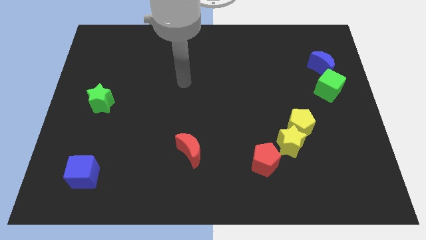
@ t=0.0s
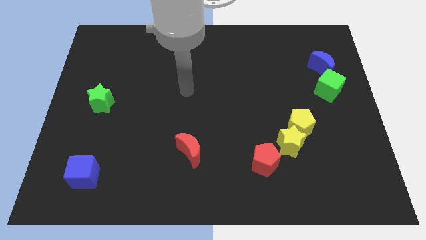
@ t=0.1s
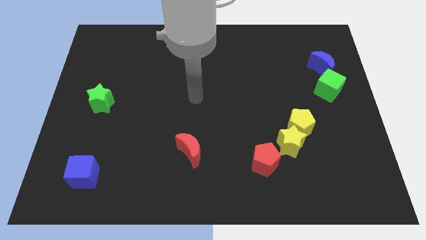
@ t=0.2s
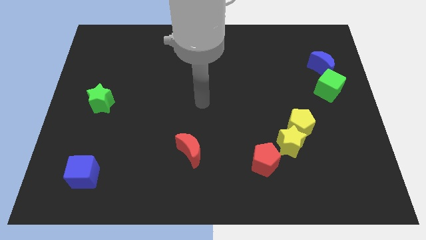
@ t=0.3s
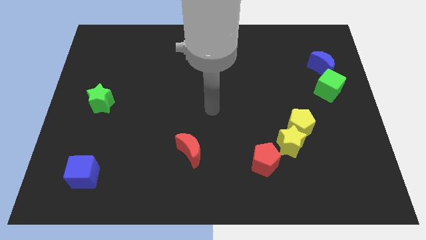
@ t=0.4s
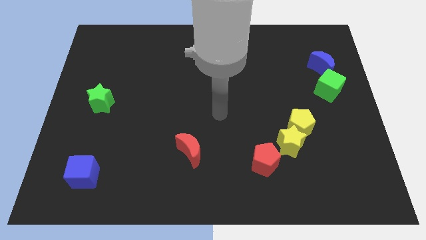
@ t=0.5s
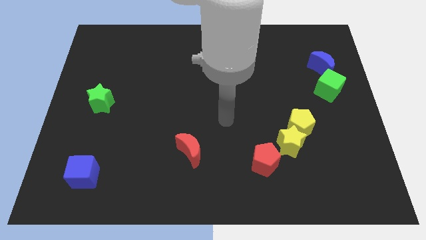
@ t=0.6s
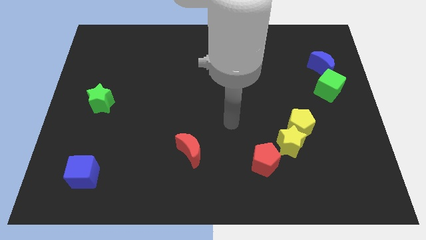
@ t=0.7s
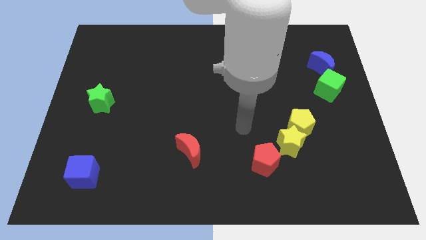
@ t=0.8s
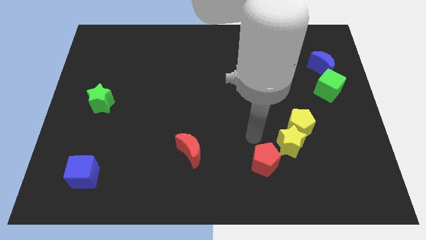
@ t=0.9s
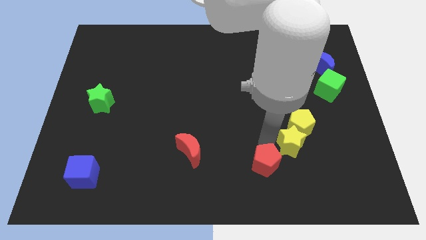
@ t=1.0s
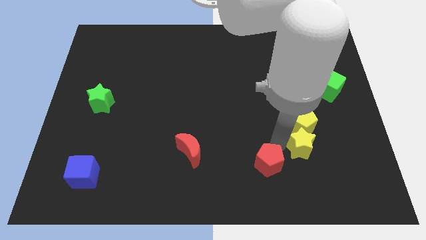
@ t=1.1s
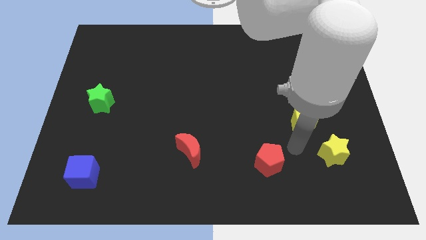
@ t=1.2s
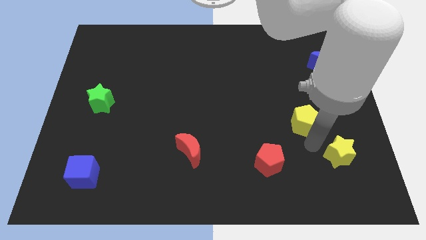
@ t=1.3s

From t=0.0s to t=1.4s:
move the yellow pentagon away from the yellow star

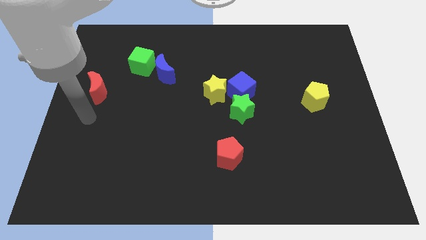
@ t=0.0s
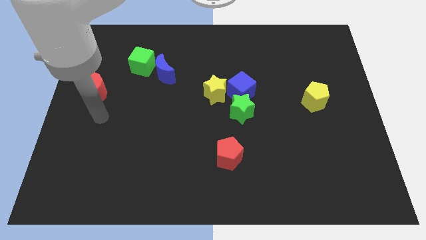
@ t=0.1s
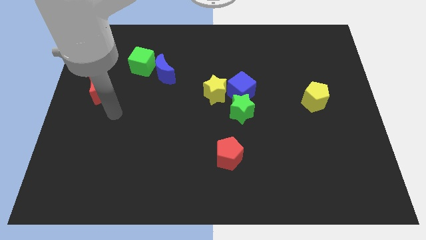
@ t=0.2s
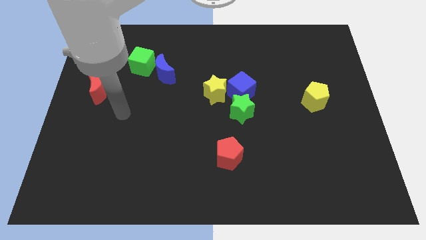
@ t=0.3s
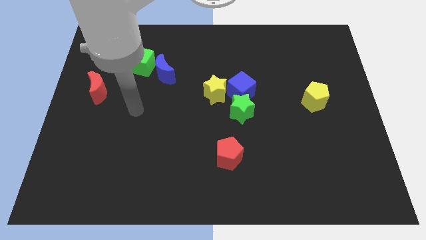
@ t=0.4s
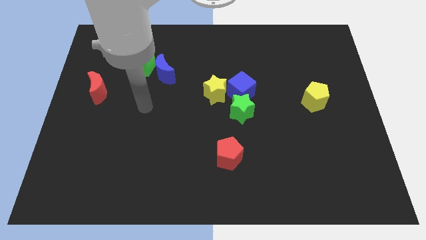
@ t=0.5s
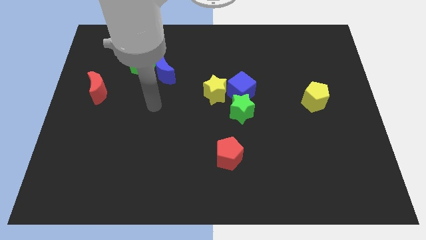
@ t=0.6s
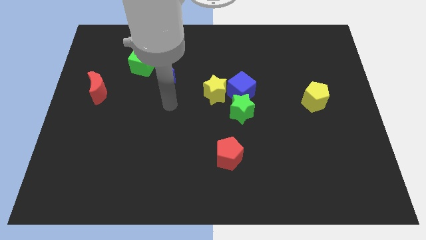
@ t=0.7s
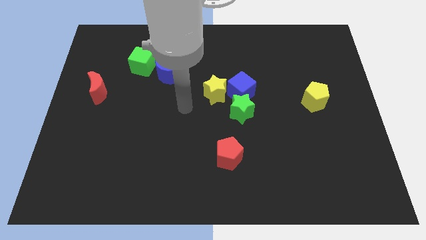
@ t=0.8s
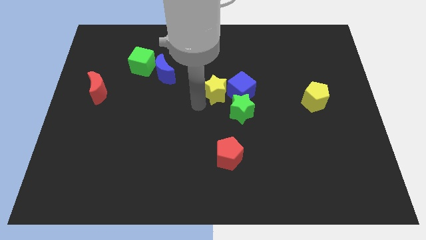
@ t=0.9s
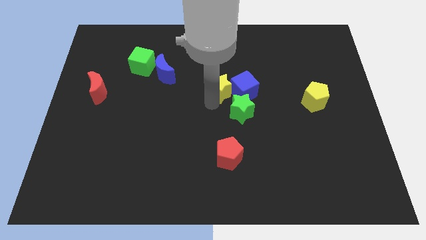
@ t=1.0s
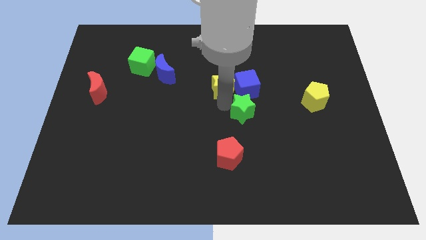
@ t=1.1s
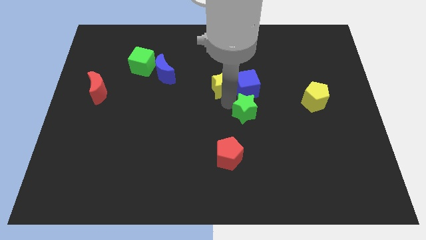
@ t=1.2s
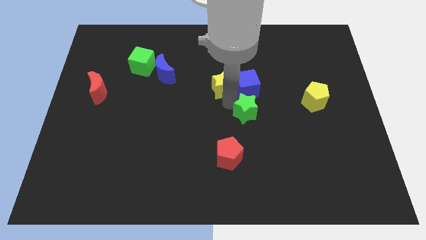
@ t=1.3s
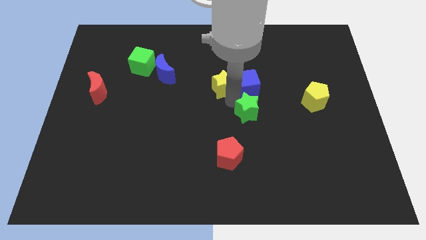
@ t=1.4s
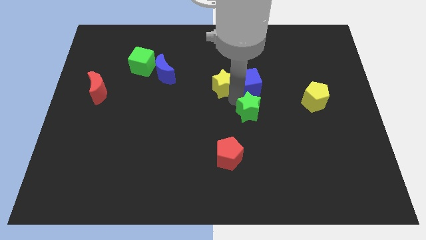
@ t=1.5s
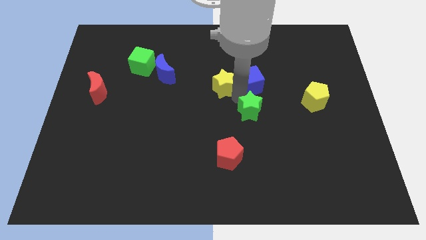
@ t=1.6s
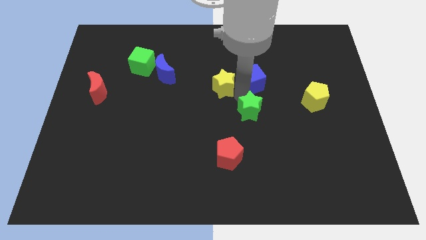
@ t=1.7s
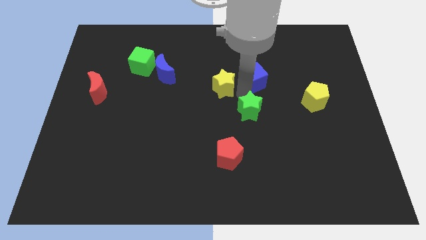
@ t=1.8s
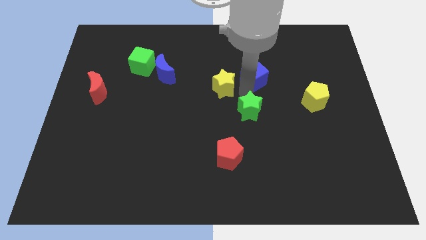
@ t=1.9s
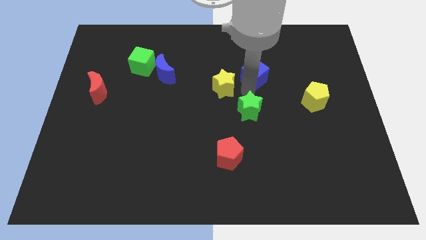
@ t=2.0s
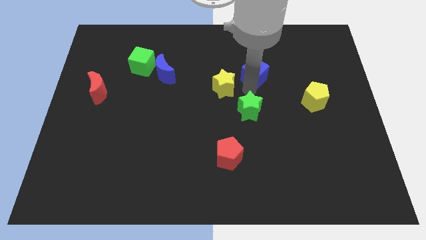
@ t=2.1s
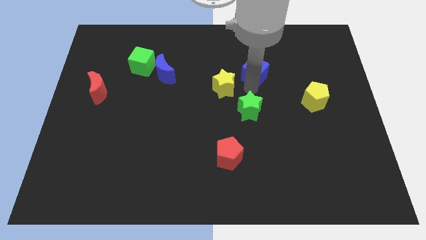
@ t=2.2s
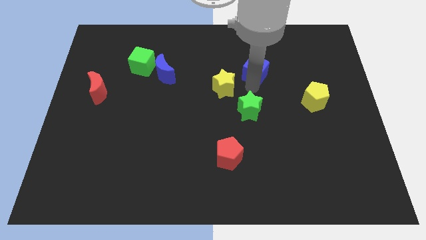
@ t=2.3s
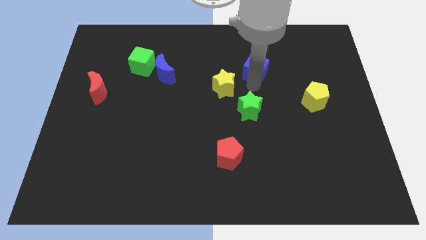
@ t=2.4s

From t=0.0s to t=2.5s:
move the blue cube away from the yellow star and green star

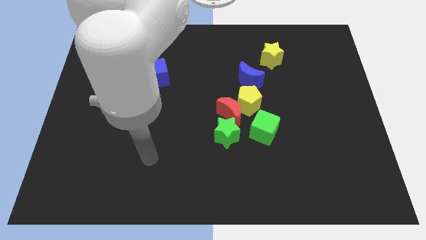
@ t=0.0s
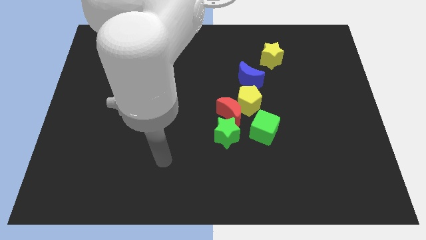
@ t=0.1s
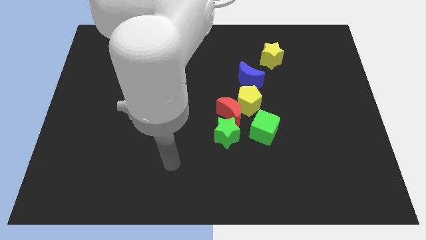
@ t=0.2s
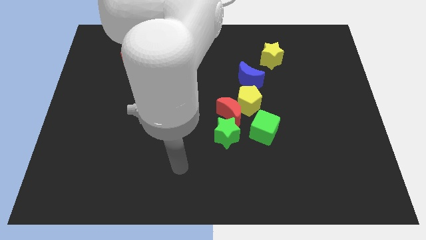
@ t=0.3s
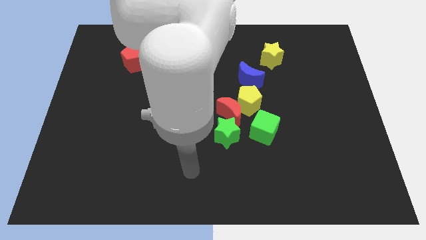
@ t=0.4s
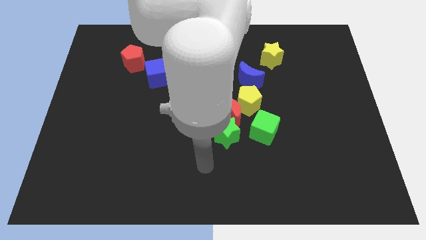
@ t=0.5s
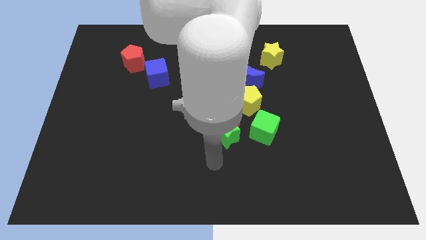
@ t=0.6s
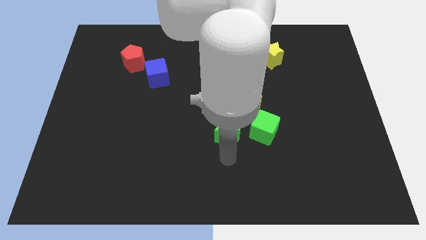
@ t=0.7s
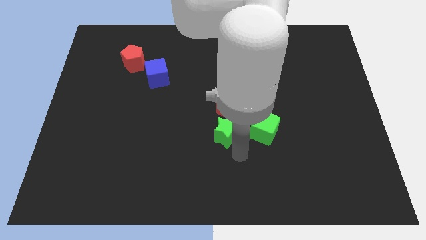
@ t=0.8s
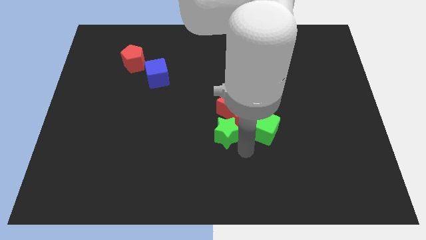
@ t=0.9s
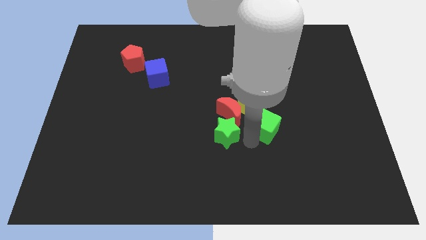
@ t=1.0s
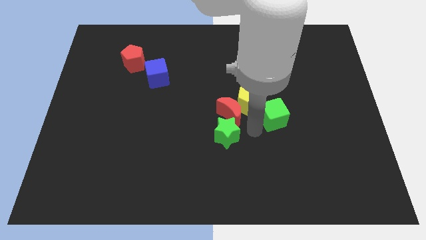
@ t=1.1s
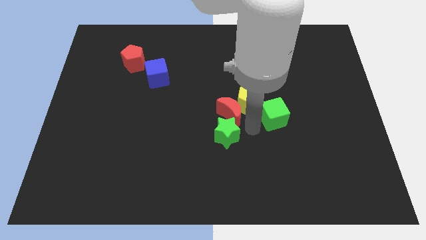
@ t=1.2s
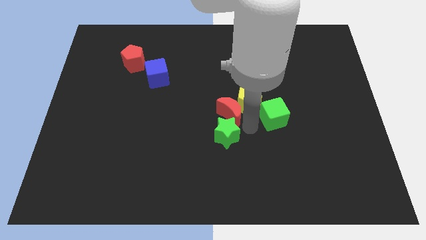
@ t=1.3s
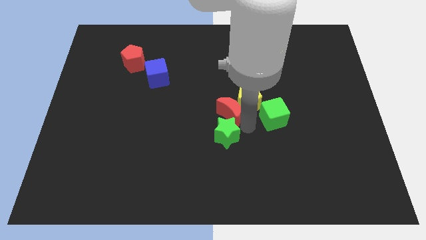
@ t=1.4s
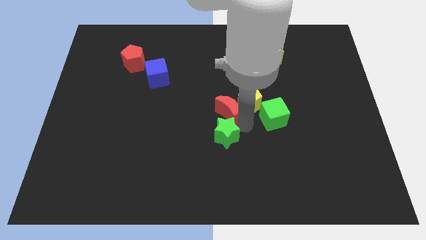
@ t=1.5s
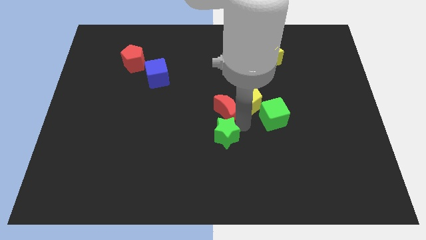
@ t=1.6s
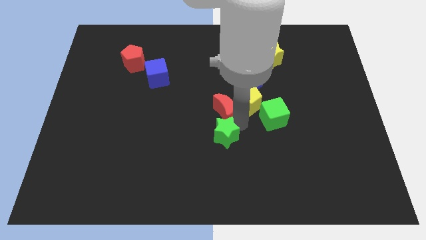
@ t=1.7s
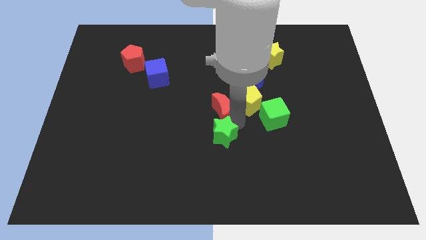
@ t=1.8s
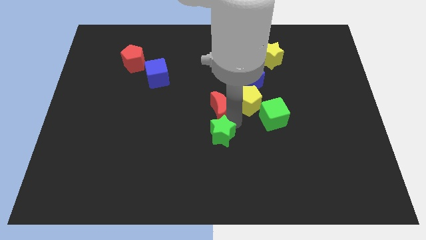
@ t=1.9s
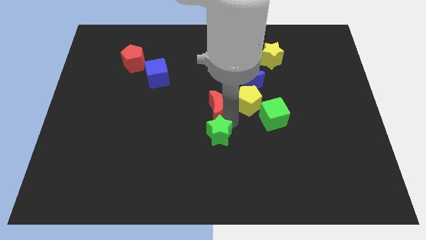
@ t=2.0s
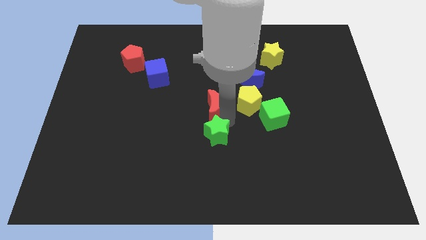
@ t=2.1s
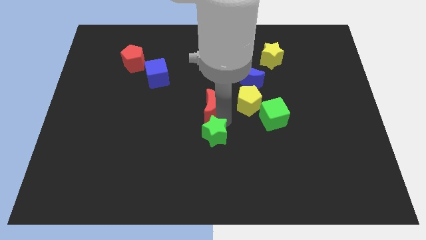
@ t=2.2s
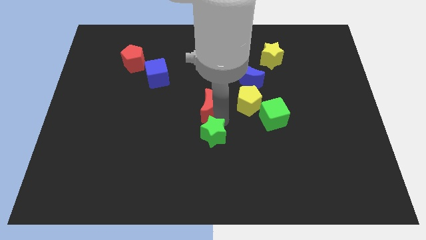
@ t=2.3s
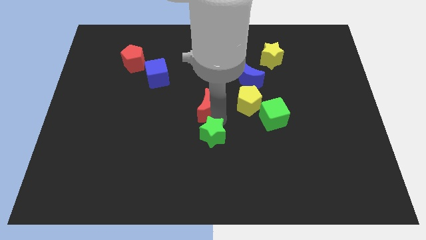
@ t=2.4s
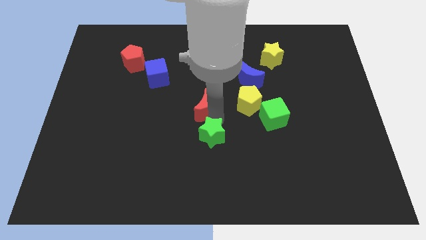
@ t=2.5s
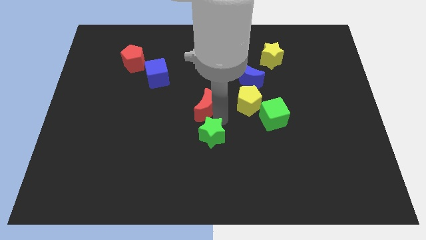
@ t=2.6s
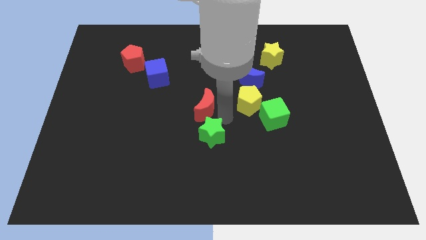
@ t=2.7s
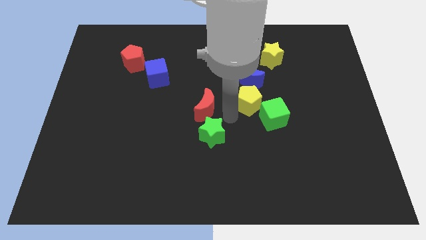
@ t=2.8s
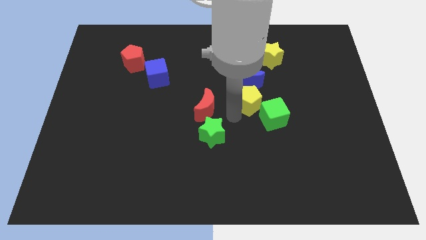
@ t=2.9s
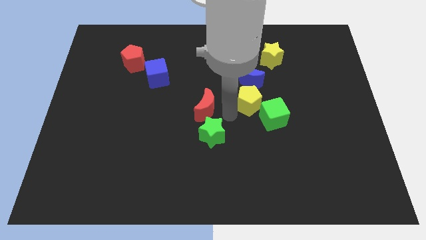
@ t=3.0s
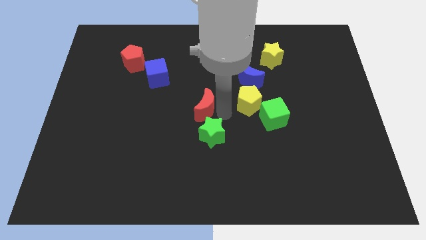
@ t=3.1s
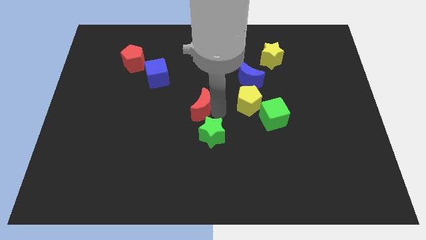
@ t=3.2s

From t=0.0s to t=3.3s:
pull the red moon apart from the yellow pentagon, green star, and green cube

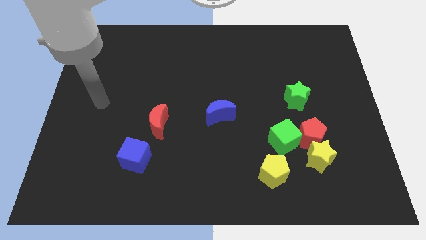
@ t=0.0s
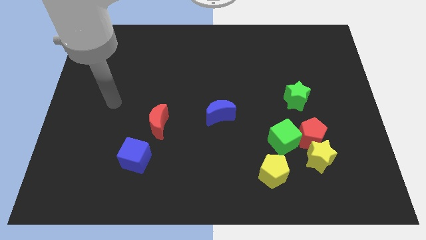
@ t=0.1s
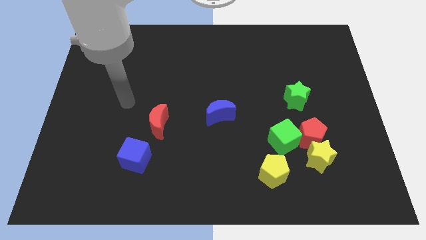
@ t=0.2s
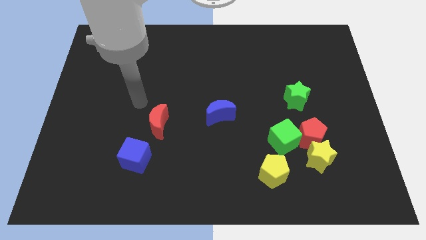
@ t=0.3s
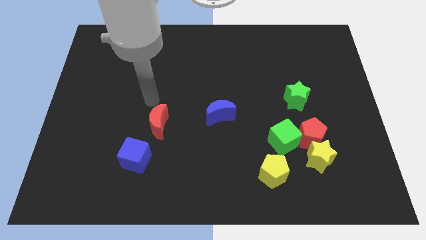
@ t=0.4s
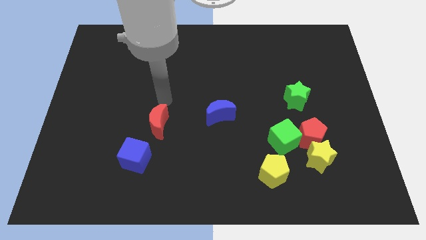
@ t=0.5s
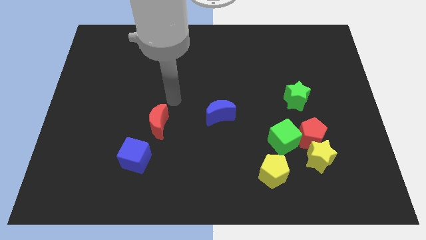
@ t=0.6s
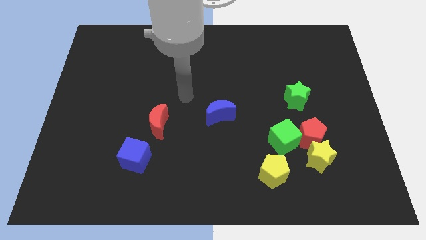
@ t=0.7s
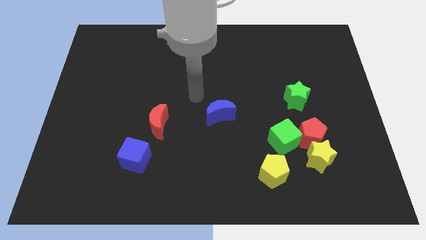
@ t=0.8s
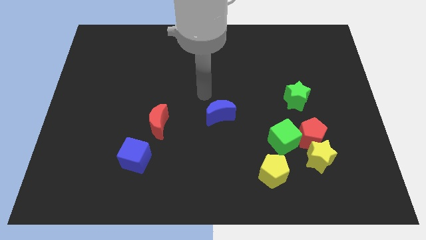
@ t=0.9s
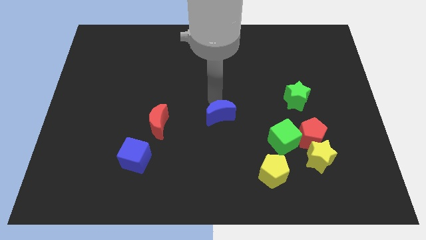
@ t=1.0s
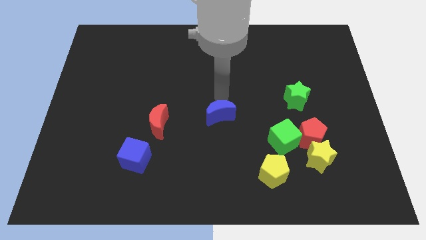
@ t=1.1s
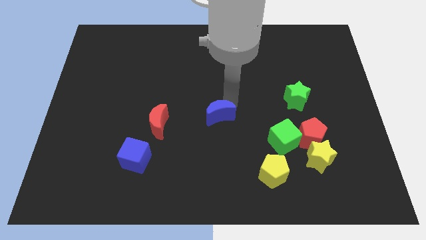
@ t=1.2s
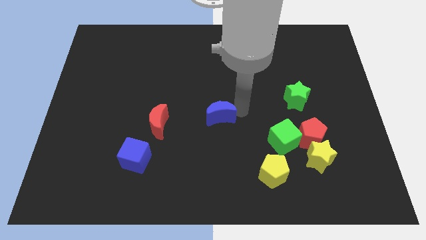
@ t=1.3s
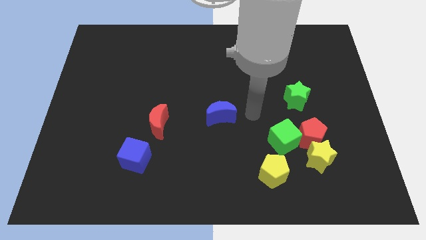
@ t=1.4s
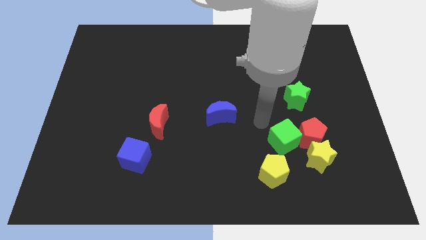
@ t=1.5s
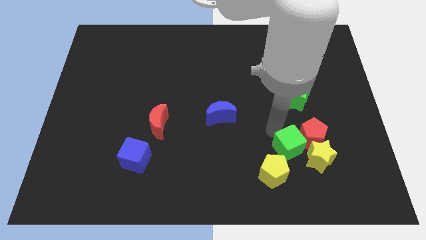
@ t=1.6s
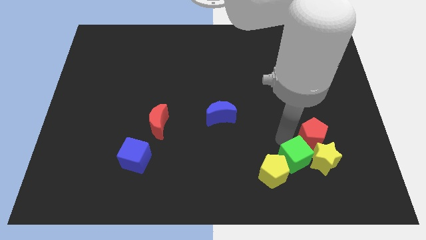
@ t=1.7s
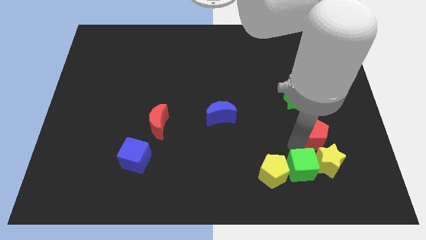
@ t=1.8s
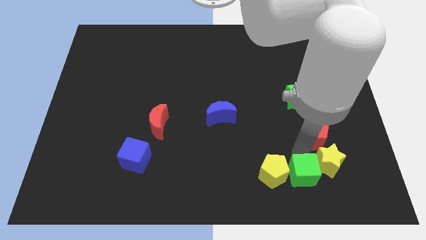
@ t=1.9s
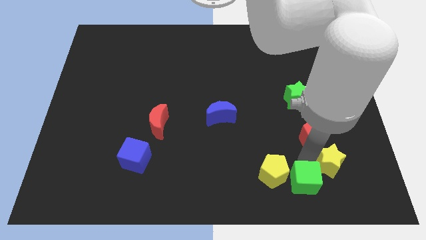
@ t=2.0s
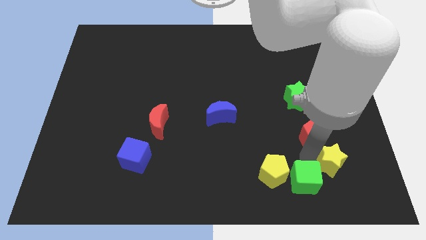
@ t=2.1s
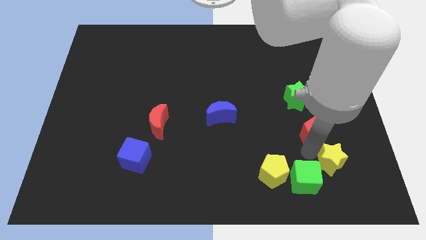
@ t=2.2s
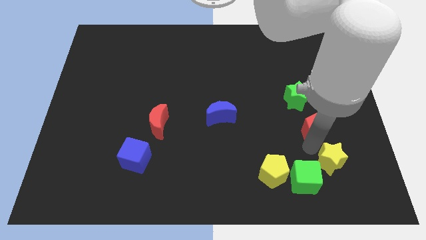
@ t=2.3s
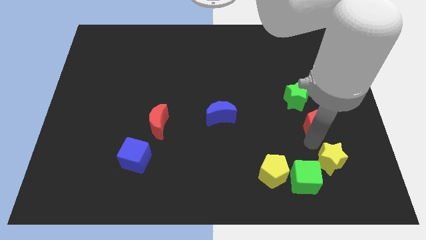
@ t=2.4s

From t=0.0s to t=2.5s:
separate the red pentagon from the yellow star and green cube
